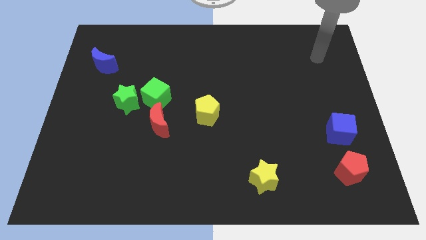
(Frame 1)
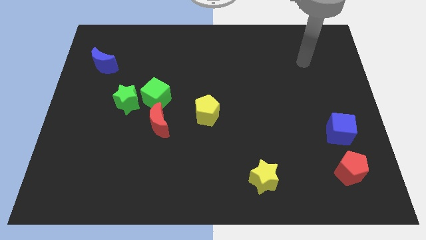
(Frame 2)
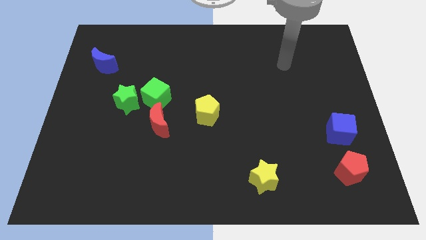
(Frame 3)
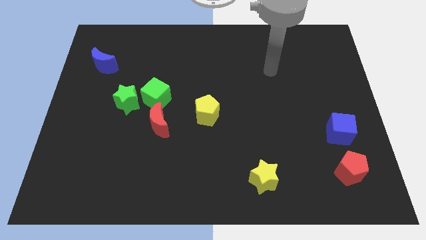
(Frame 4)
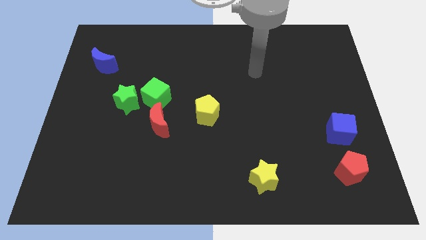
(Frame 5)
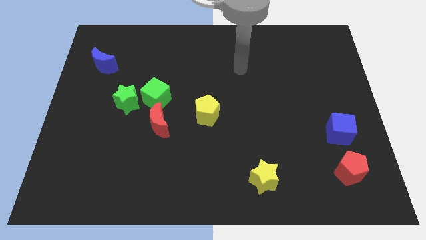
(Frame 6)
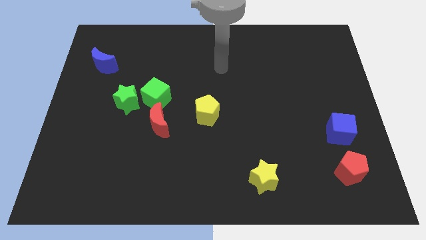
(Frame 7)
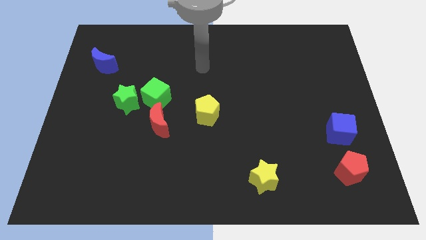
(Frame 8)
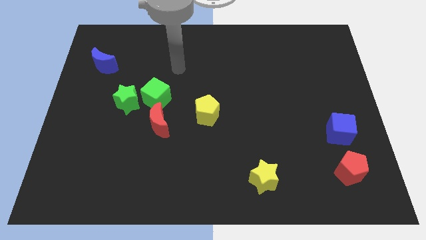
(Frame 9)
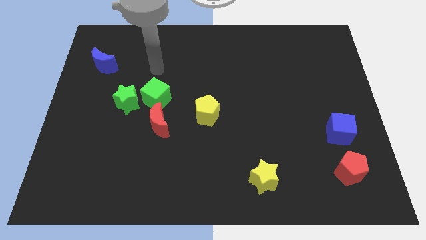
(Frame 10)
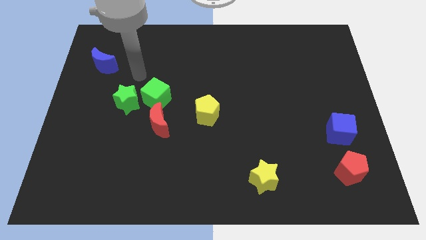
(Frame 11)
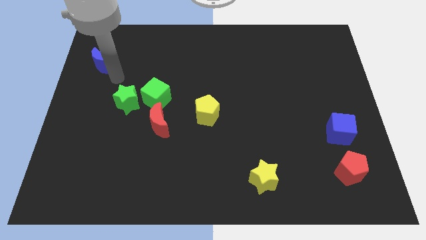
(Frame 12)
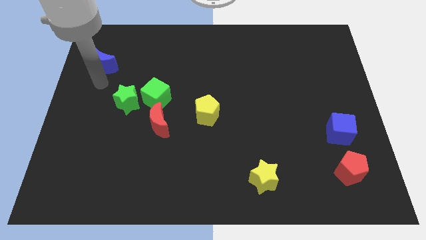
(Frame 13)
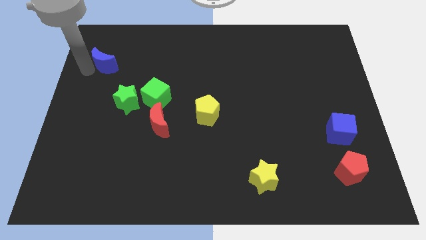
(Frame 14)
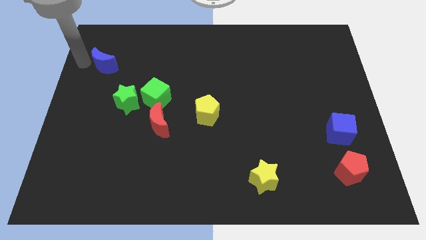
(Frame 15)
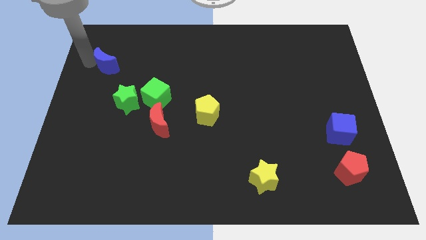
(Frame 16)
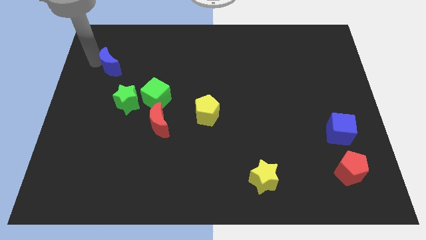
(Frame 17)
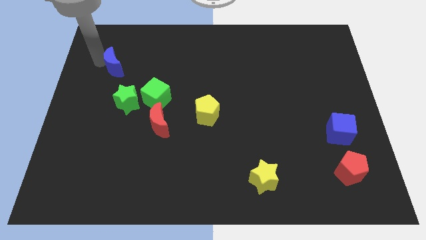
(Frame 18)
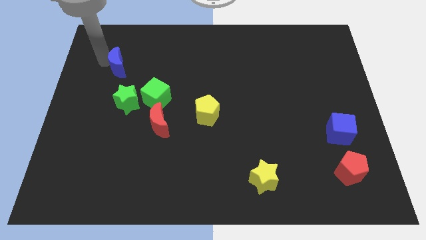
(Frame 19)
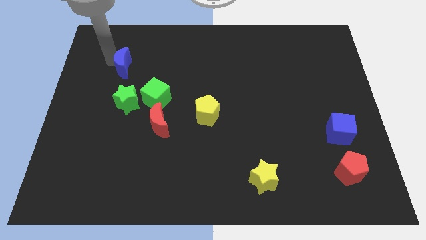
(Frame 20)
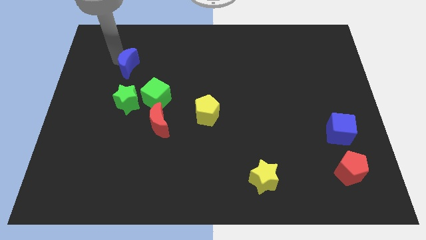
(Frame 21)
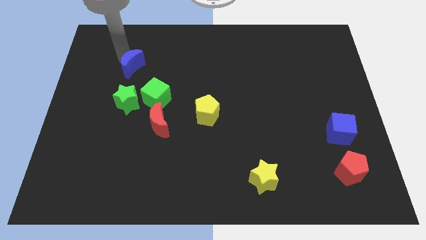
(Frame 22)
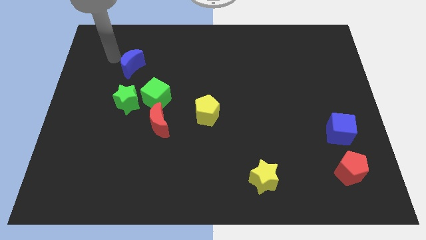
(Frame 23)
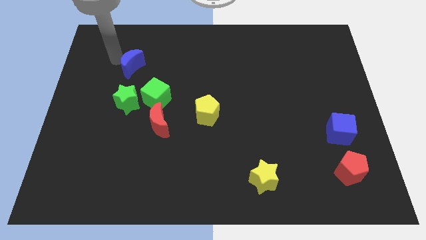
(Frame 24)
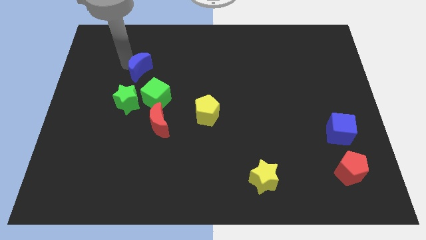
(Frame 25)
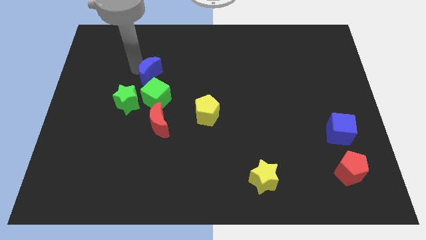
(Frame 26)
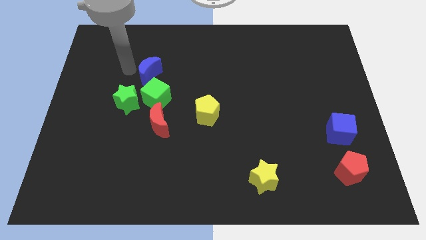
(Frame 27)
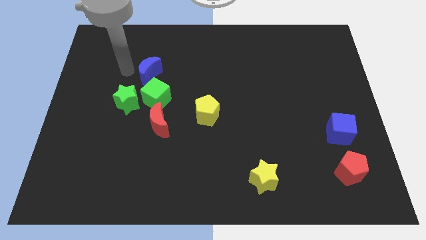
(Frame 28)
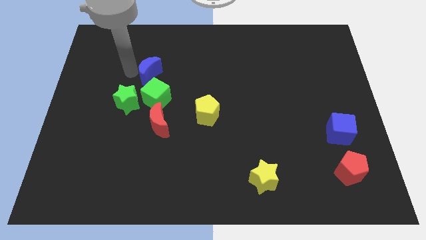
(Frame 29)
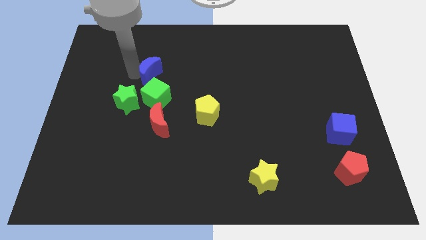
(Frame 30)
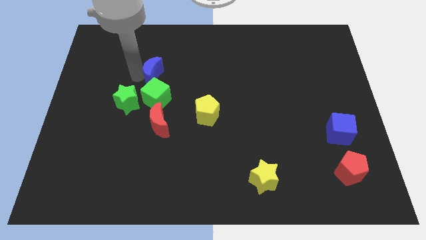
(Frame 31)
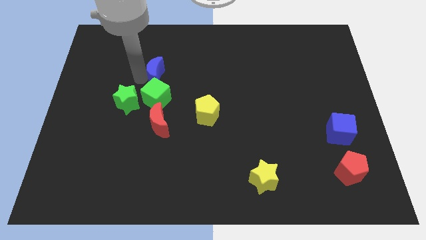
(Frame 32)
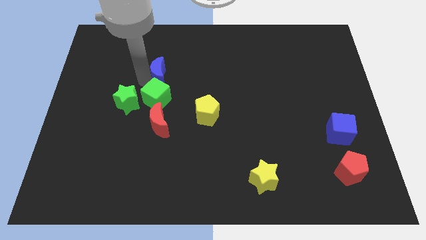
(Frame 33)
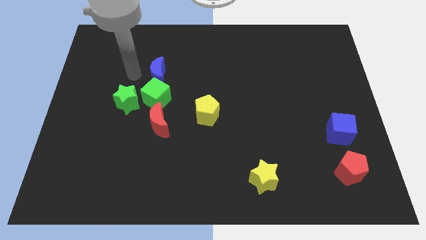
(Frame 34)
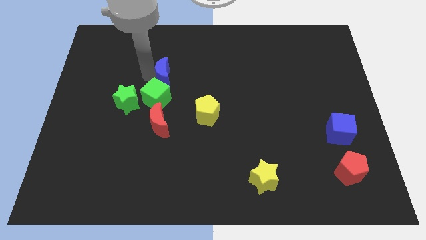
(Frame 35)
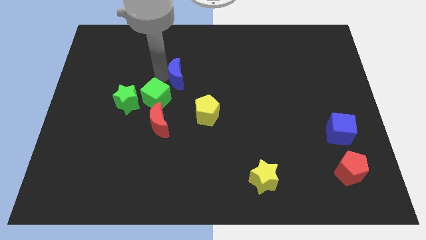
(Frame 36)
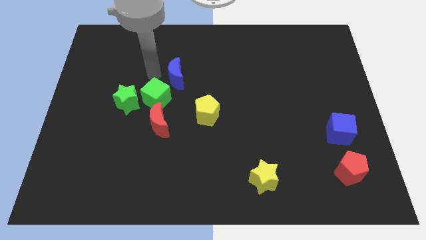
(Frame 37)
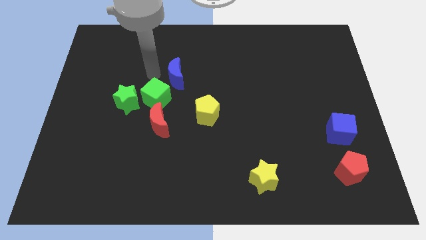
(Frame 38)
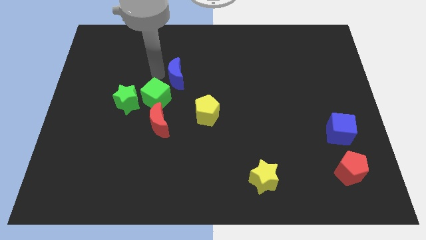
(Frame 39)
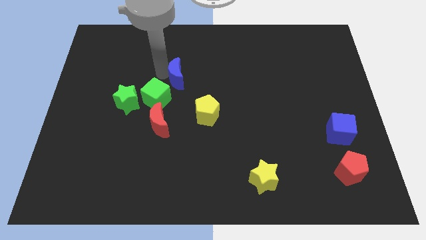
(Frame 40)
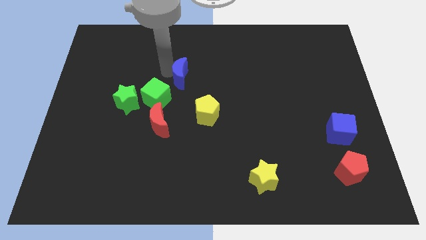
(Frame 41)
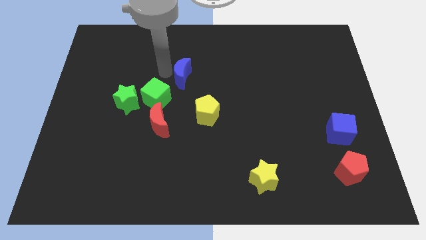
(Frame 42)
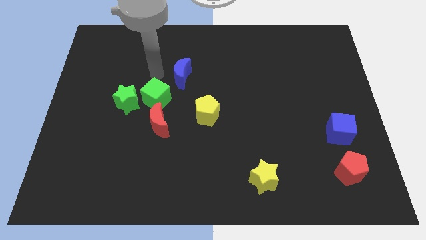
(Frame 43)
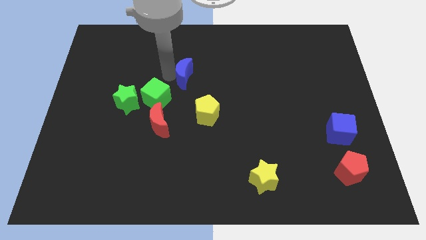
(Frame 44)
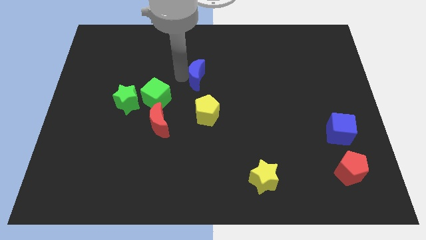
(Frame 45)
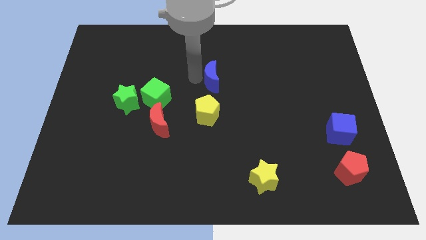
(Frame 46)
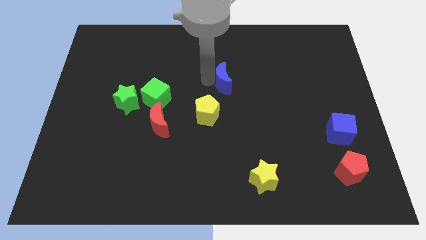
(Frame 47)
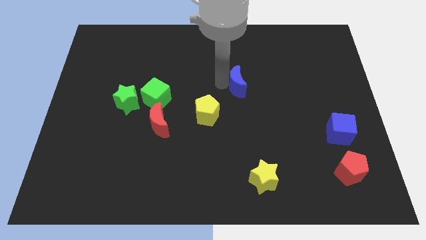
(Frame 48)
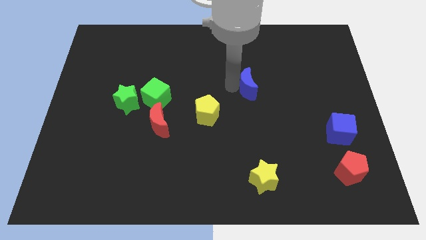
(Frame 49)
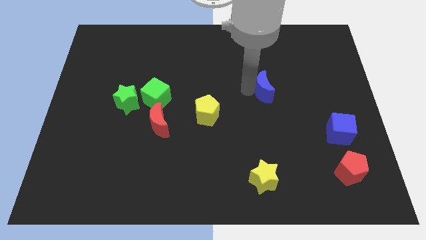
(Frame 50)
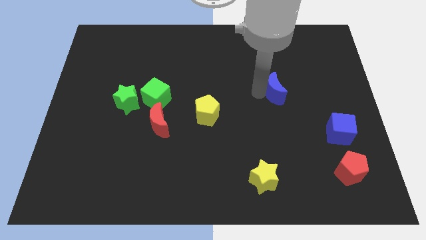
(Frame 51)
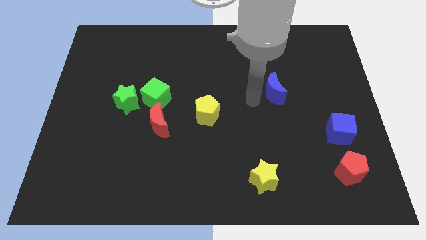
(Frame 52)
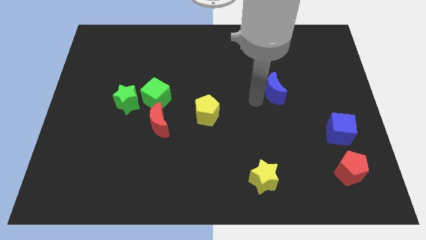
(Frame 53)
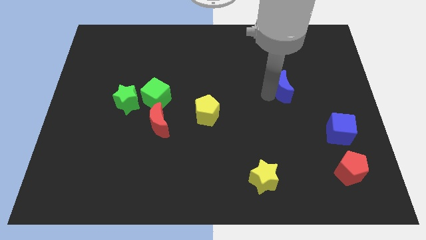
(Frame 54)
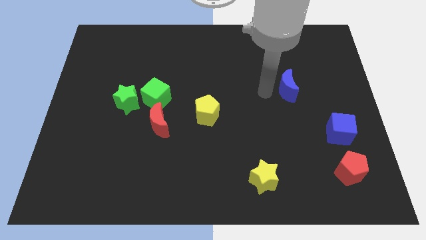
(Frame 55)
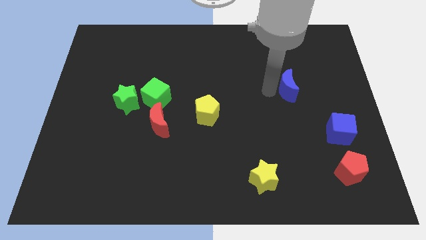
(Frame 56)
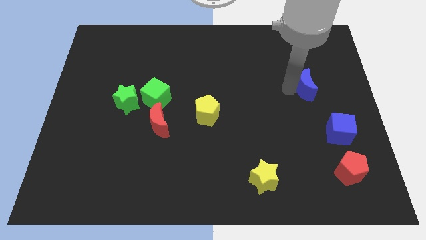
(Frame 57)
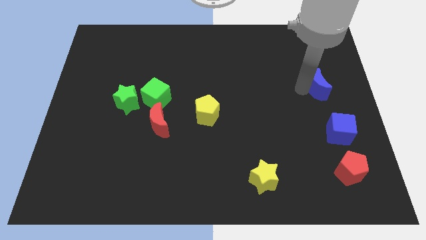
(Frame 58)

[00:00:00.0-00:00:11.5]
move the blue moon to the right side of the board
